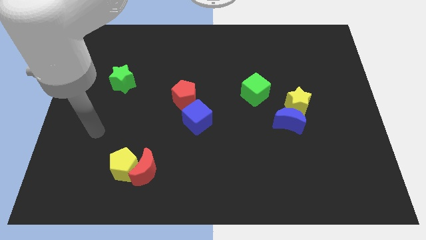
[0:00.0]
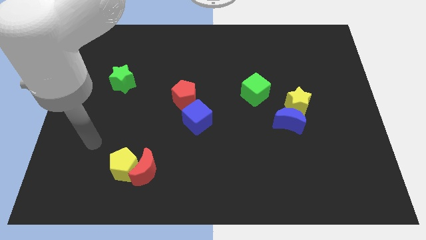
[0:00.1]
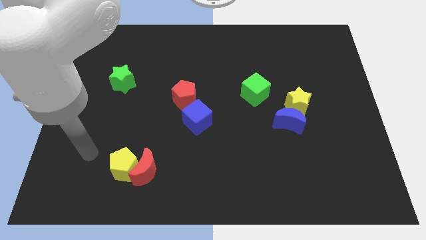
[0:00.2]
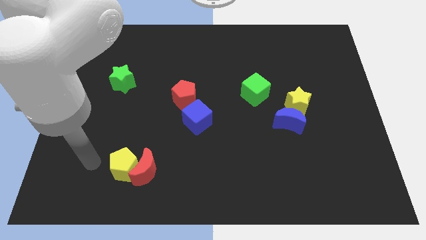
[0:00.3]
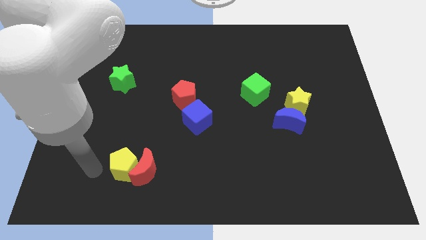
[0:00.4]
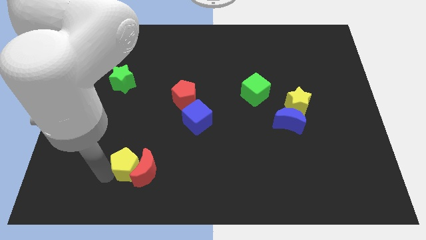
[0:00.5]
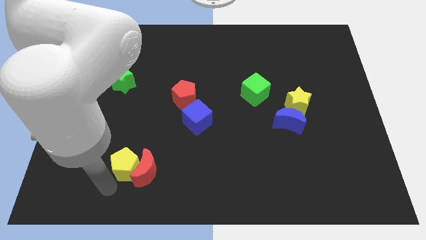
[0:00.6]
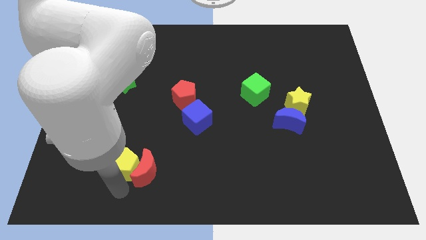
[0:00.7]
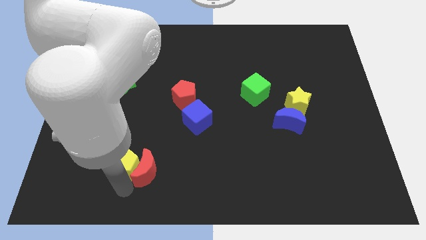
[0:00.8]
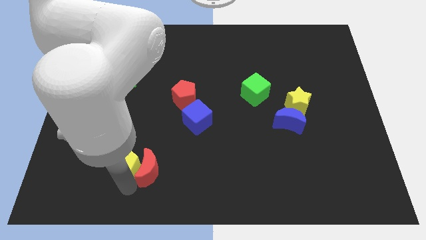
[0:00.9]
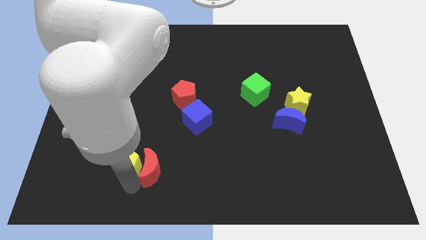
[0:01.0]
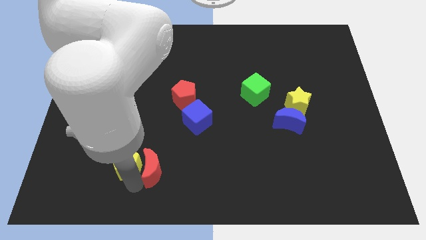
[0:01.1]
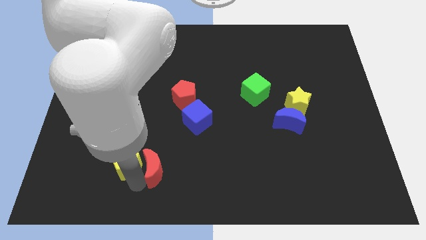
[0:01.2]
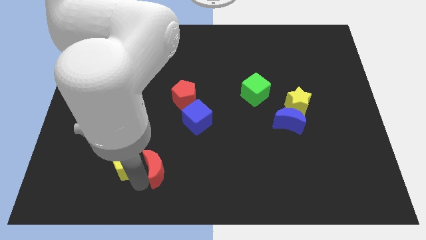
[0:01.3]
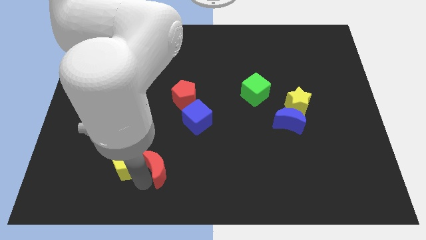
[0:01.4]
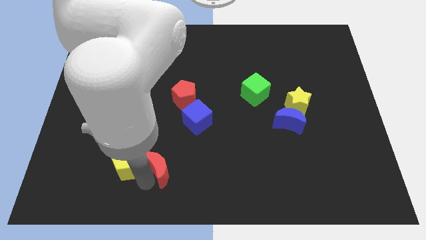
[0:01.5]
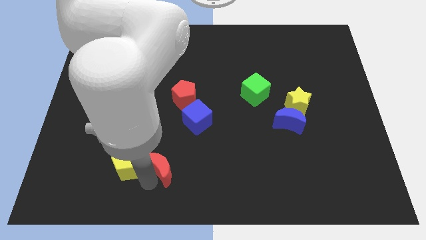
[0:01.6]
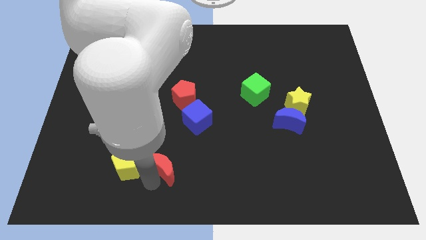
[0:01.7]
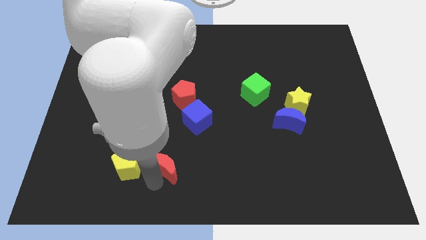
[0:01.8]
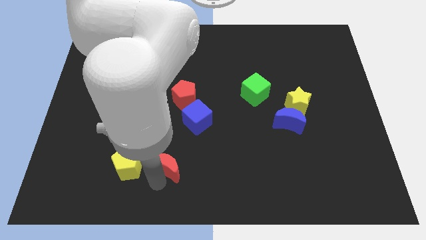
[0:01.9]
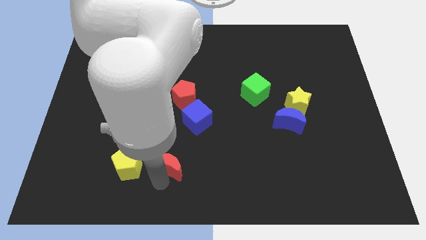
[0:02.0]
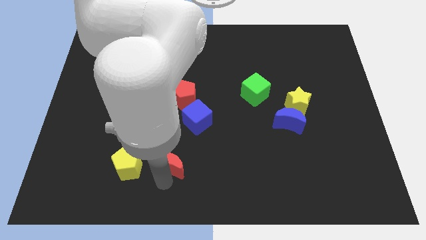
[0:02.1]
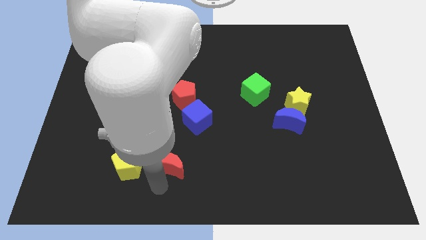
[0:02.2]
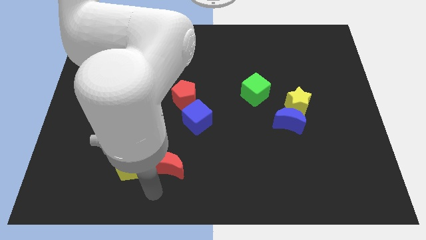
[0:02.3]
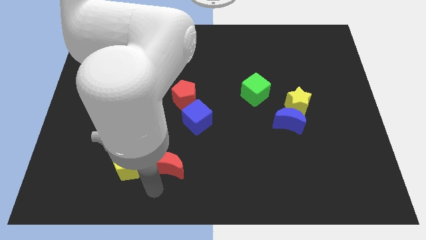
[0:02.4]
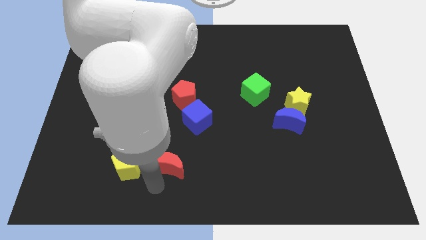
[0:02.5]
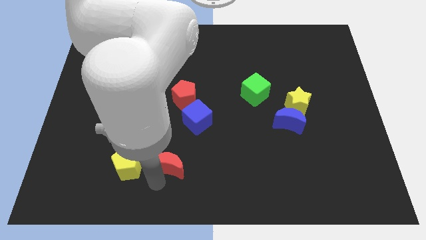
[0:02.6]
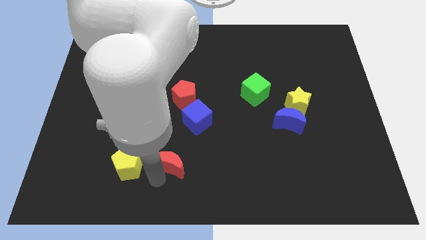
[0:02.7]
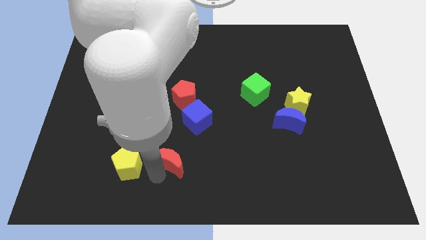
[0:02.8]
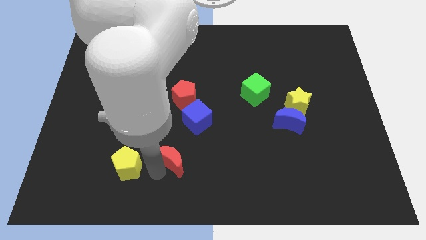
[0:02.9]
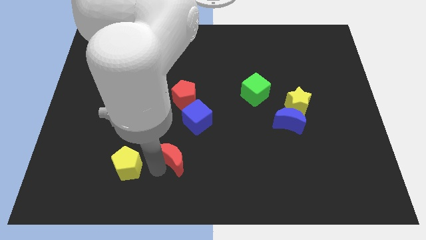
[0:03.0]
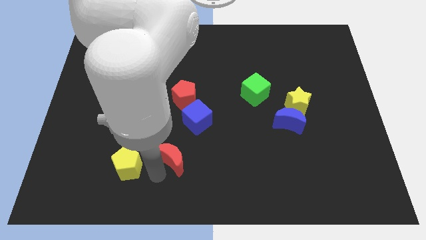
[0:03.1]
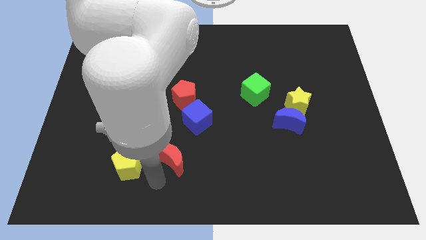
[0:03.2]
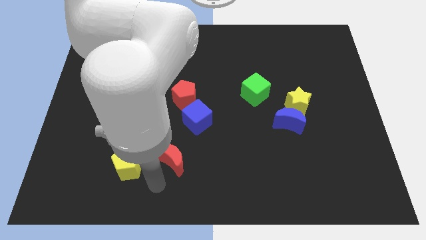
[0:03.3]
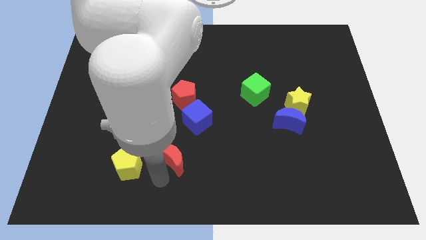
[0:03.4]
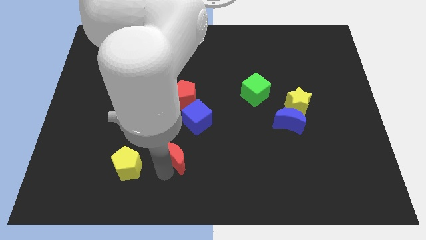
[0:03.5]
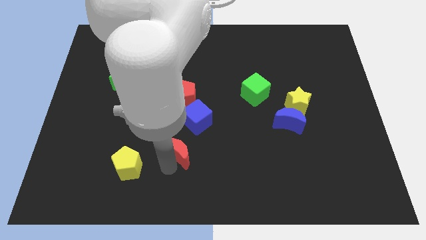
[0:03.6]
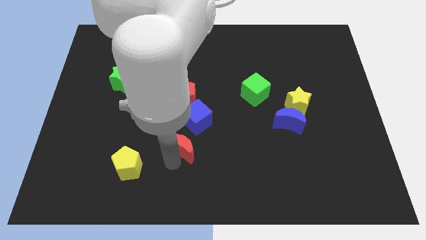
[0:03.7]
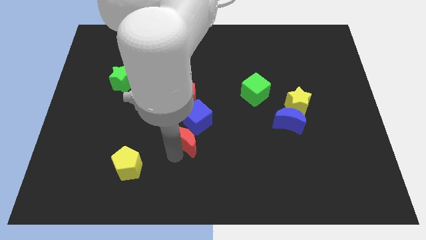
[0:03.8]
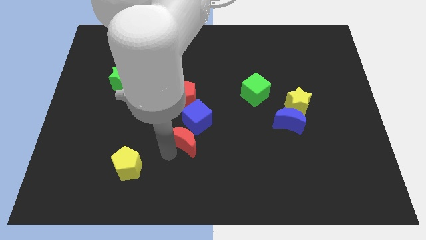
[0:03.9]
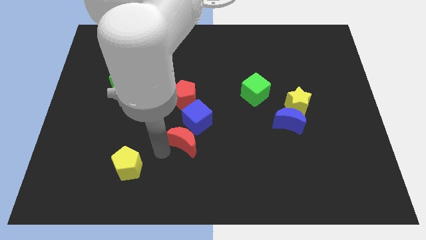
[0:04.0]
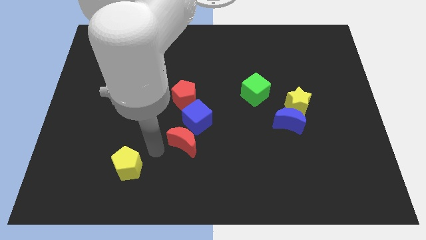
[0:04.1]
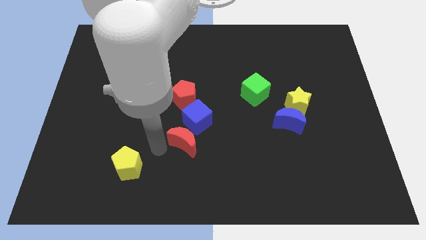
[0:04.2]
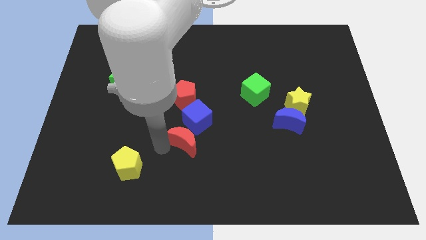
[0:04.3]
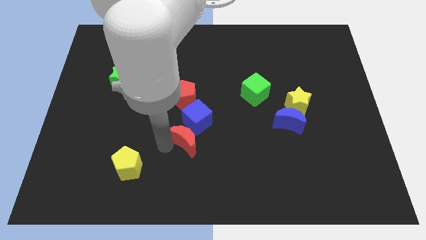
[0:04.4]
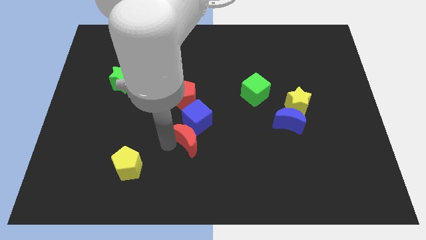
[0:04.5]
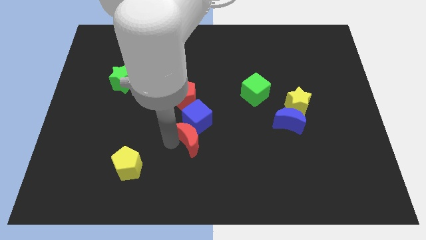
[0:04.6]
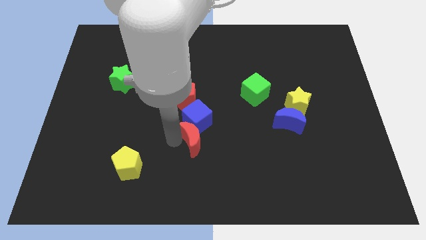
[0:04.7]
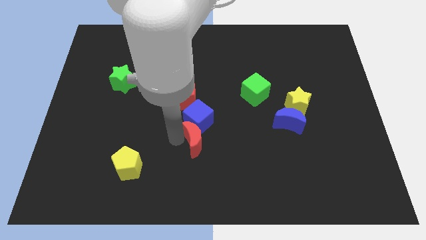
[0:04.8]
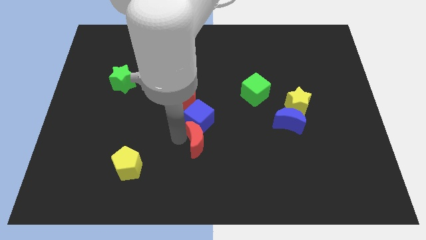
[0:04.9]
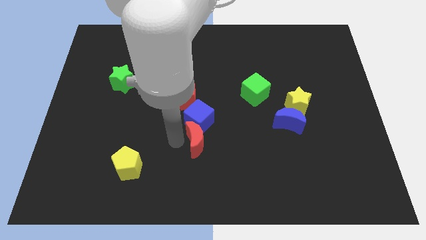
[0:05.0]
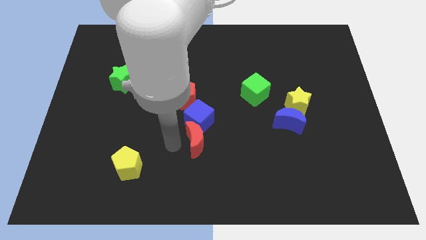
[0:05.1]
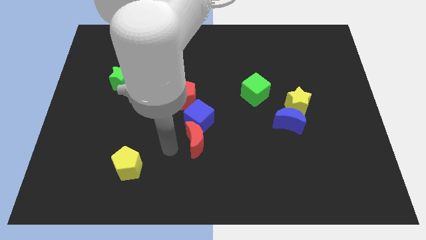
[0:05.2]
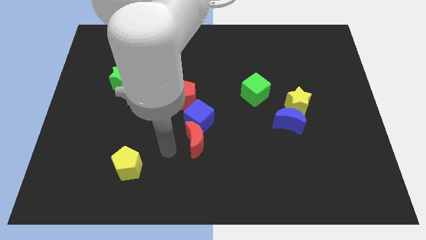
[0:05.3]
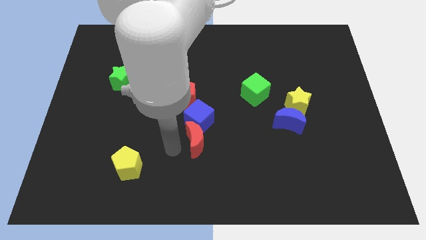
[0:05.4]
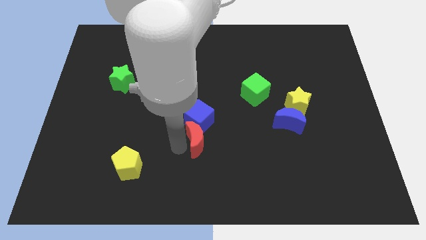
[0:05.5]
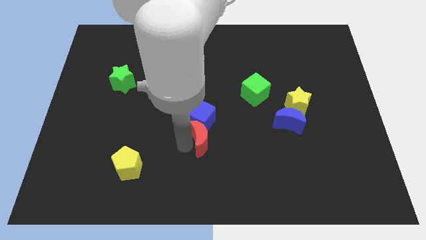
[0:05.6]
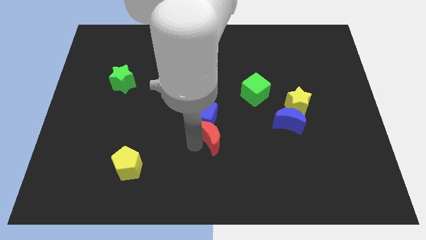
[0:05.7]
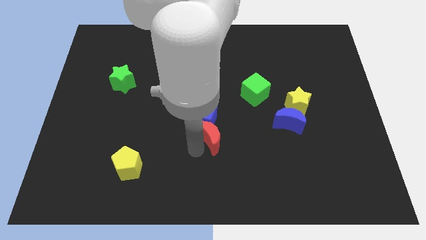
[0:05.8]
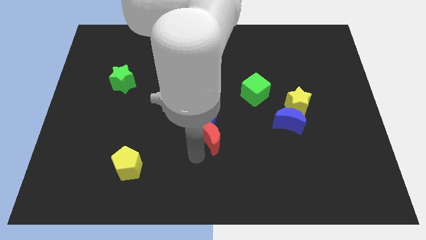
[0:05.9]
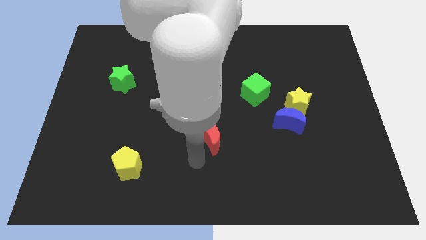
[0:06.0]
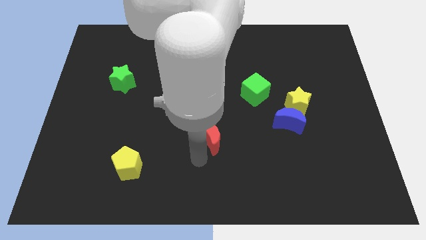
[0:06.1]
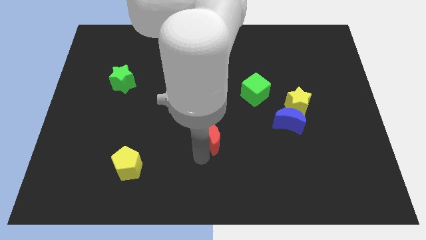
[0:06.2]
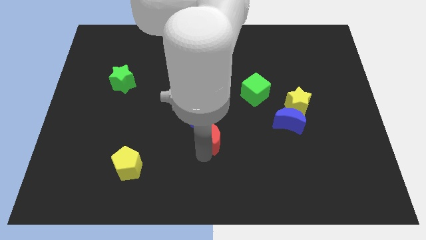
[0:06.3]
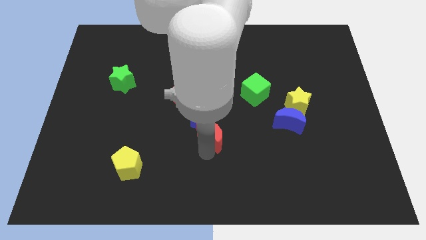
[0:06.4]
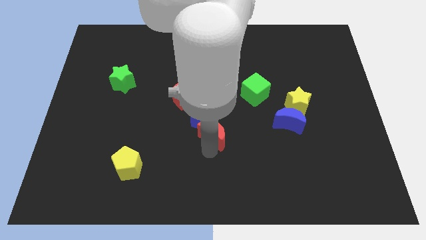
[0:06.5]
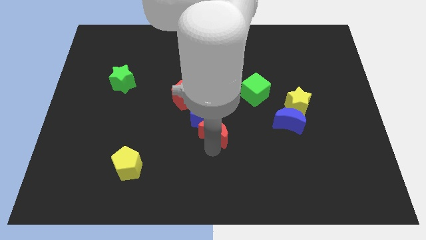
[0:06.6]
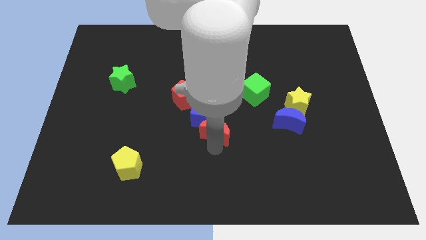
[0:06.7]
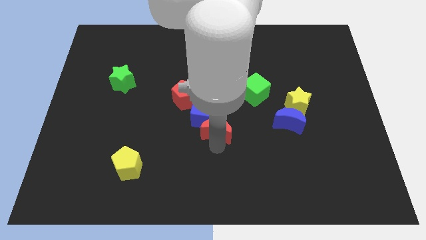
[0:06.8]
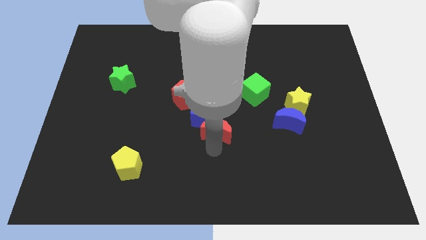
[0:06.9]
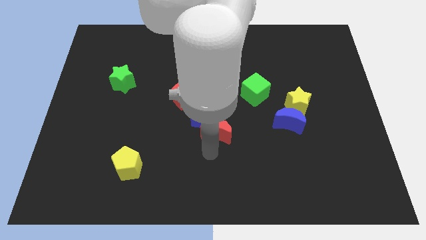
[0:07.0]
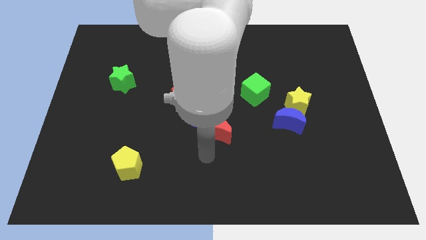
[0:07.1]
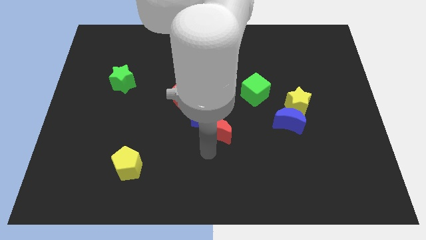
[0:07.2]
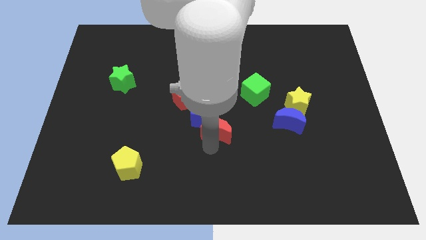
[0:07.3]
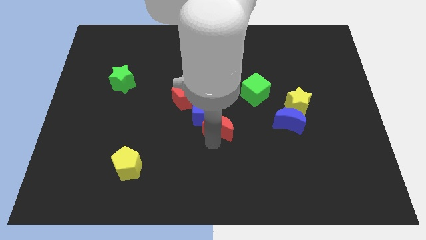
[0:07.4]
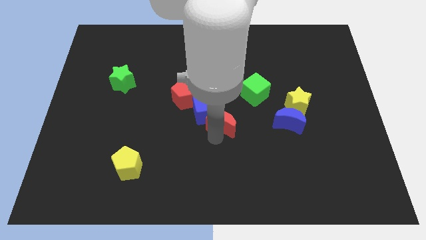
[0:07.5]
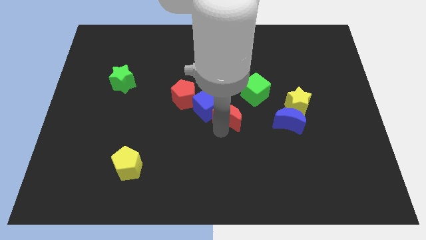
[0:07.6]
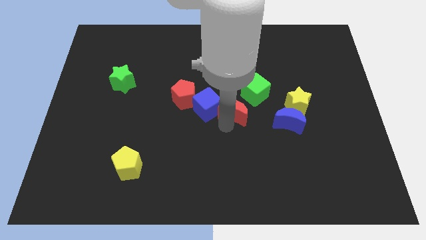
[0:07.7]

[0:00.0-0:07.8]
move the red moon to the right side of the red pentagon
